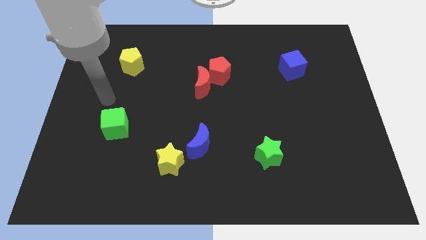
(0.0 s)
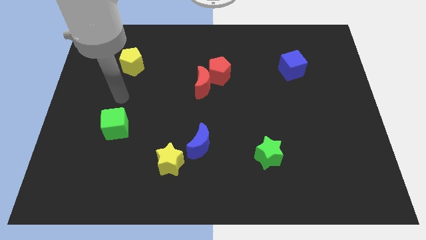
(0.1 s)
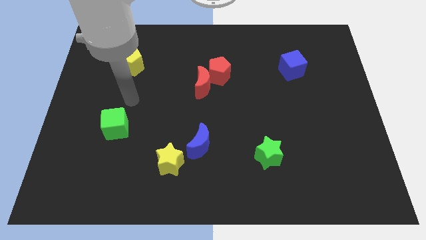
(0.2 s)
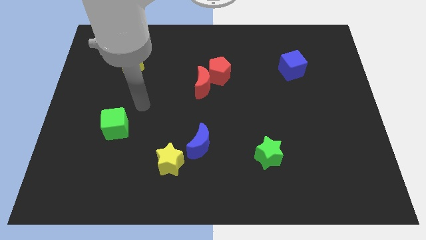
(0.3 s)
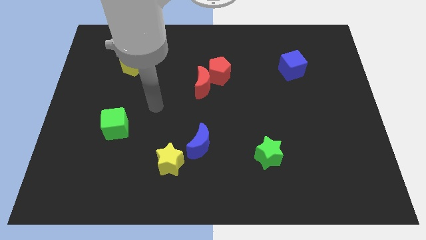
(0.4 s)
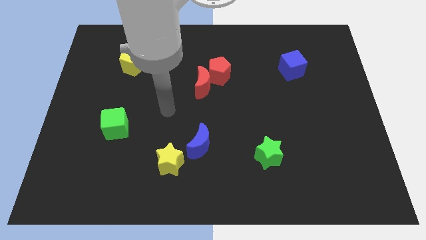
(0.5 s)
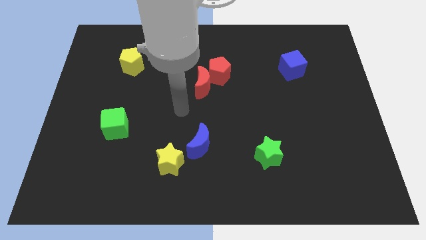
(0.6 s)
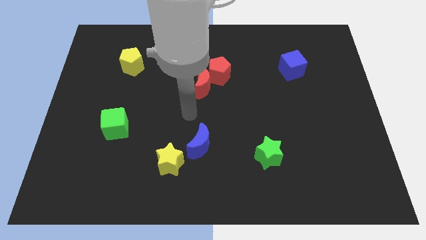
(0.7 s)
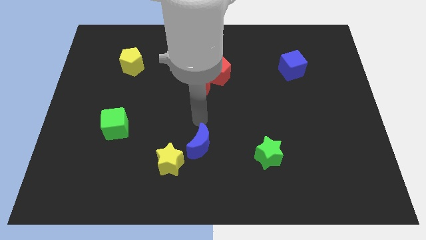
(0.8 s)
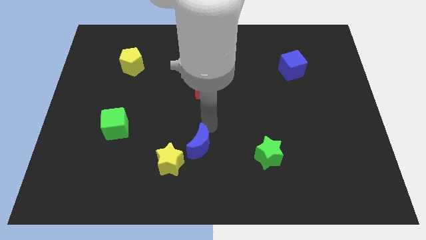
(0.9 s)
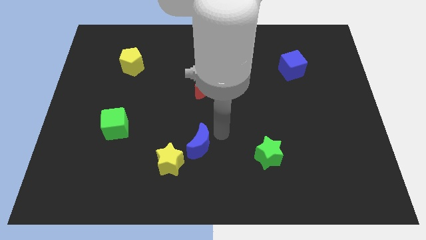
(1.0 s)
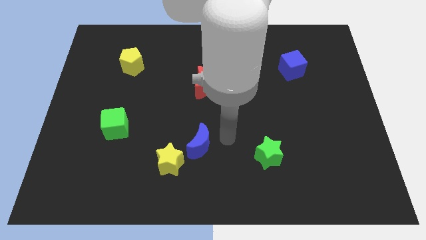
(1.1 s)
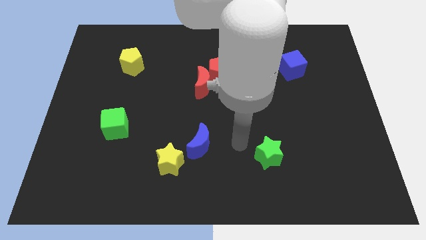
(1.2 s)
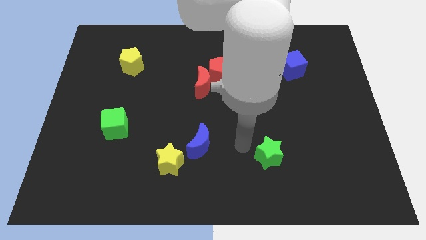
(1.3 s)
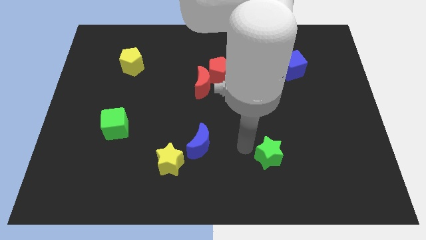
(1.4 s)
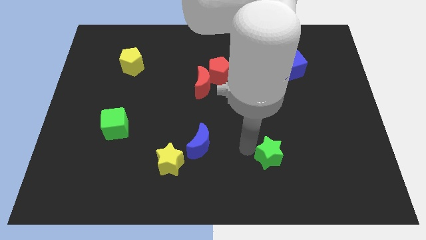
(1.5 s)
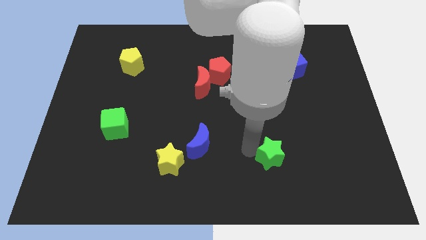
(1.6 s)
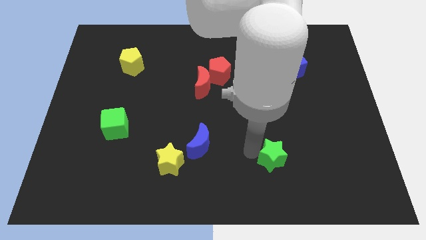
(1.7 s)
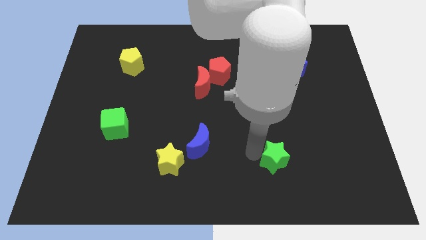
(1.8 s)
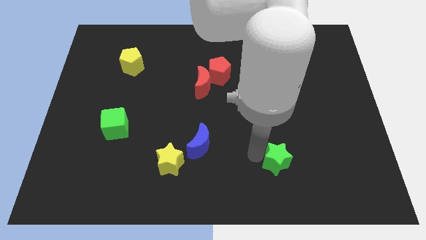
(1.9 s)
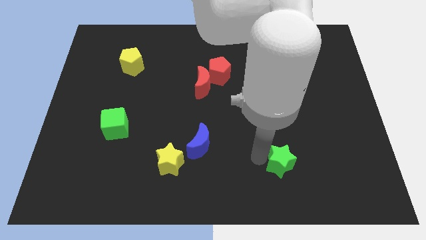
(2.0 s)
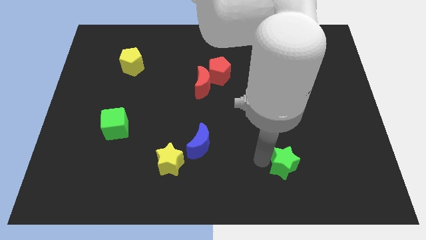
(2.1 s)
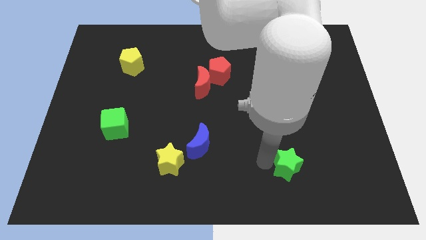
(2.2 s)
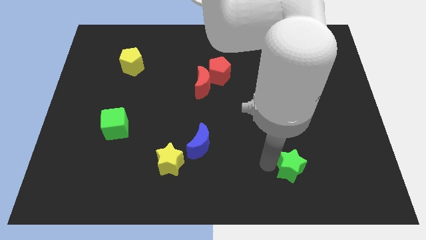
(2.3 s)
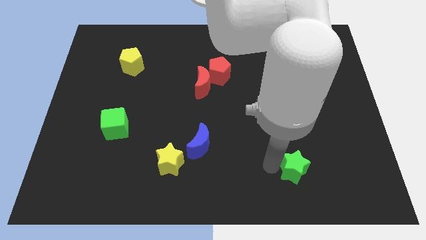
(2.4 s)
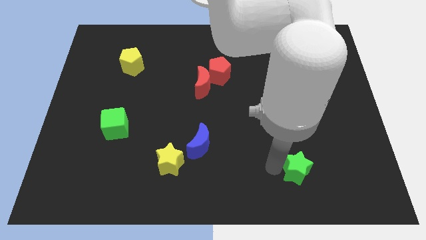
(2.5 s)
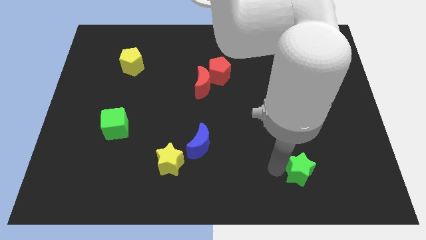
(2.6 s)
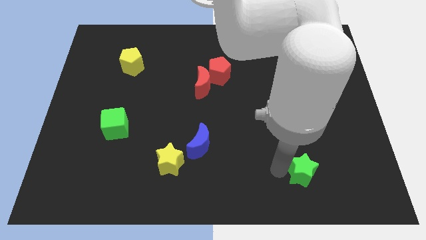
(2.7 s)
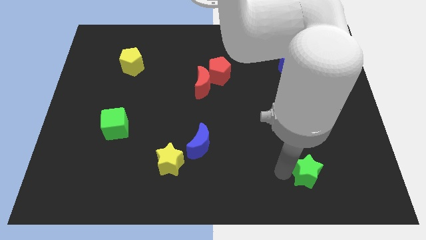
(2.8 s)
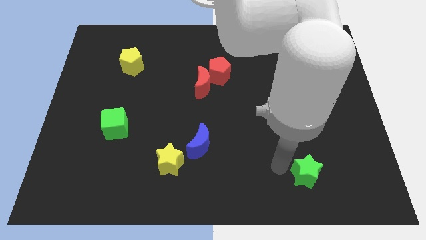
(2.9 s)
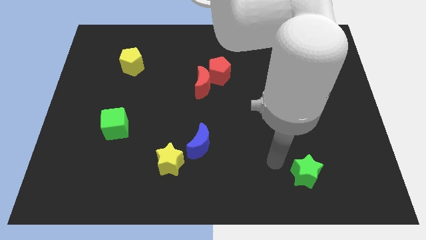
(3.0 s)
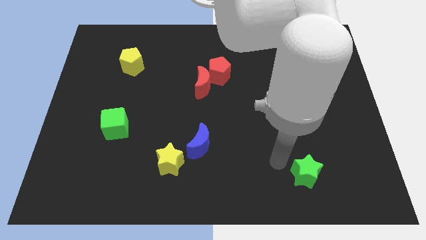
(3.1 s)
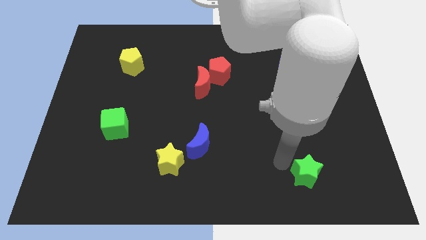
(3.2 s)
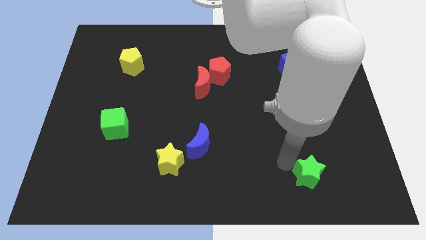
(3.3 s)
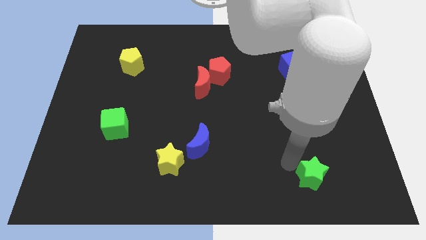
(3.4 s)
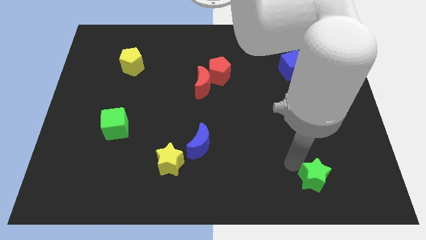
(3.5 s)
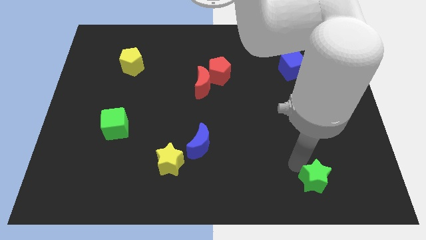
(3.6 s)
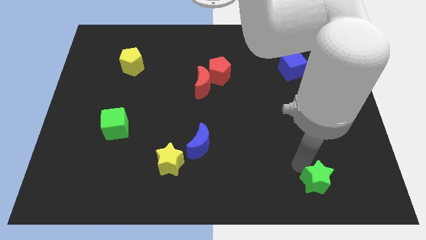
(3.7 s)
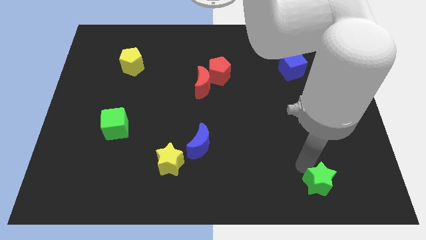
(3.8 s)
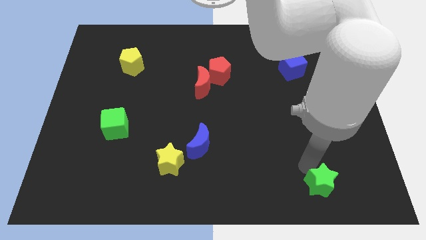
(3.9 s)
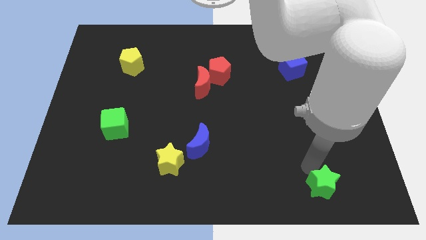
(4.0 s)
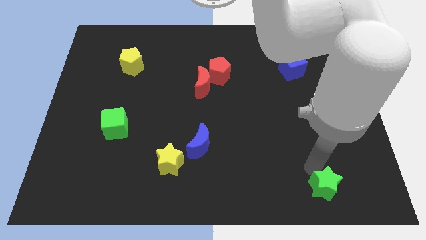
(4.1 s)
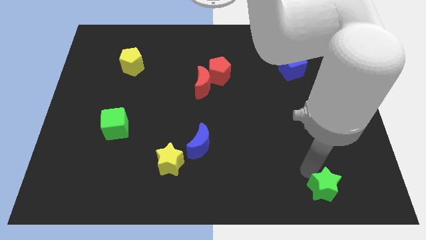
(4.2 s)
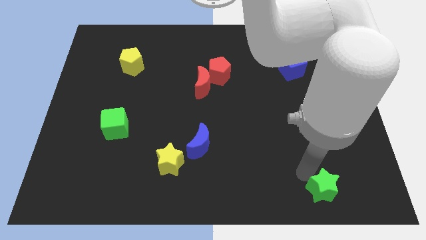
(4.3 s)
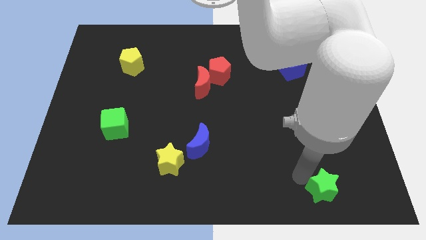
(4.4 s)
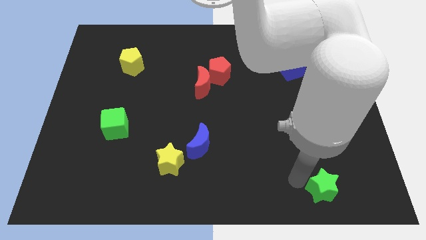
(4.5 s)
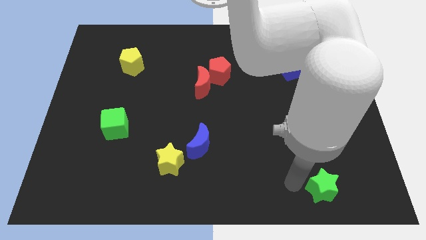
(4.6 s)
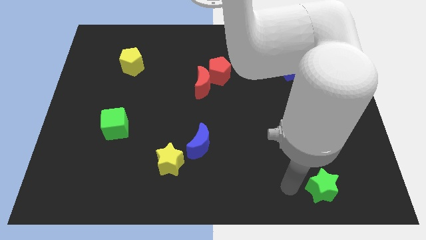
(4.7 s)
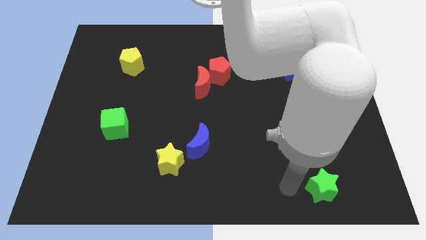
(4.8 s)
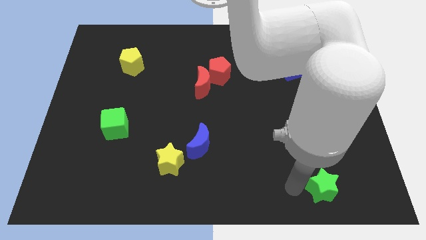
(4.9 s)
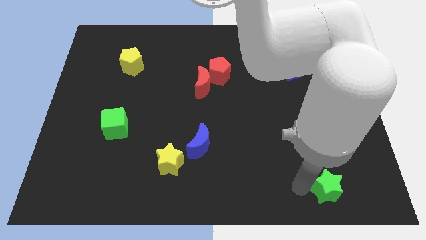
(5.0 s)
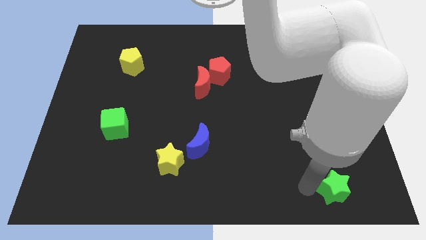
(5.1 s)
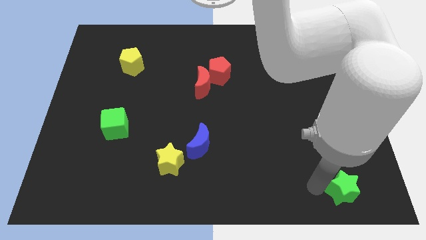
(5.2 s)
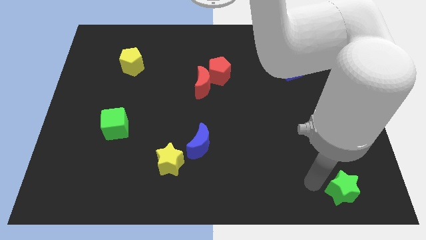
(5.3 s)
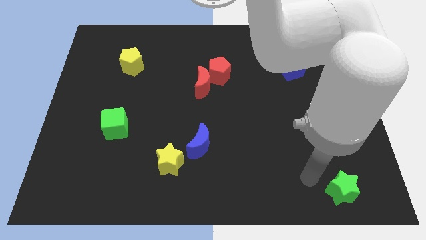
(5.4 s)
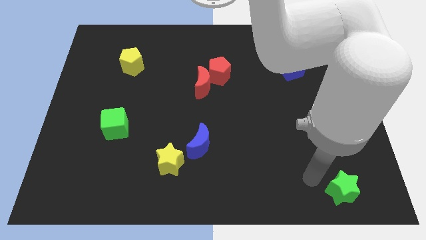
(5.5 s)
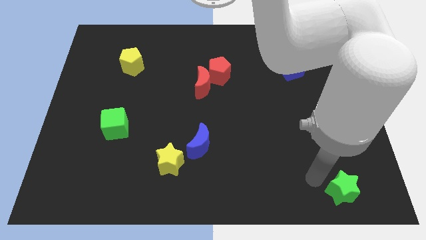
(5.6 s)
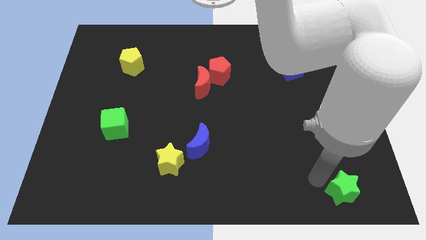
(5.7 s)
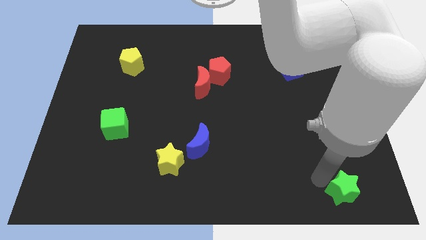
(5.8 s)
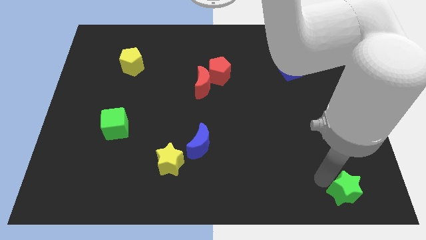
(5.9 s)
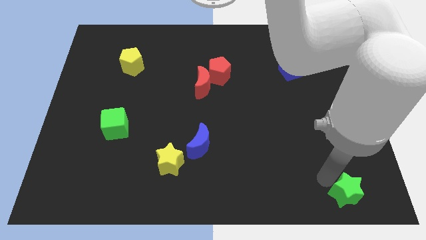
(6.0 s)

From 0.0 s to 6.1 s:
push the green star to the bottom right of the board
